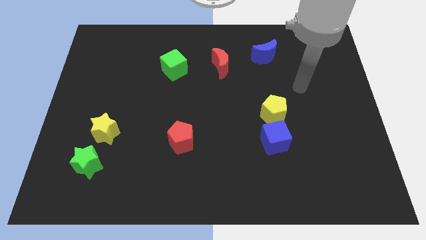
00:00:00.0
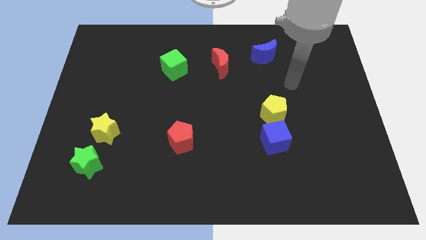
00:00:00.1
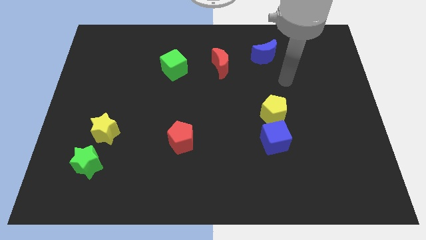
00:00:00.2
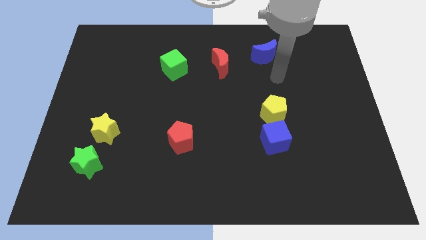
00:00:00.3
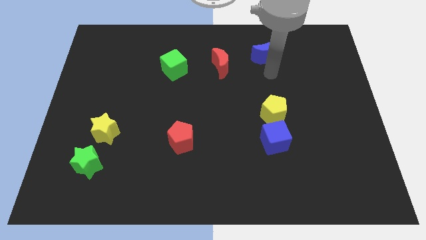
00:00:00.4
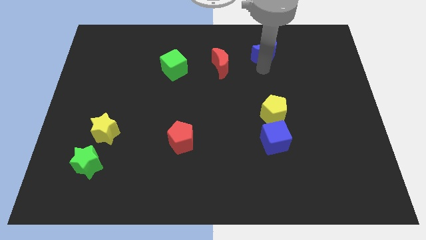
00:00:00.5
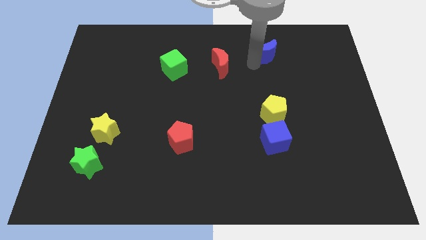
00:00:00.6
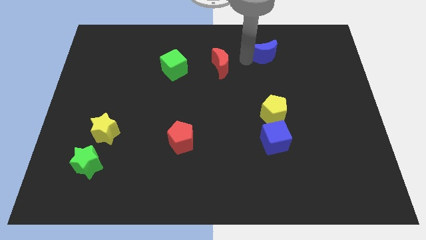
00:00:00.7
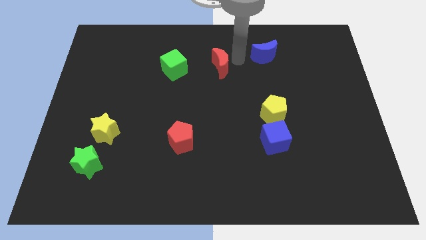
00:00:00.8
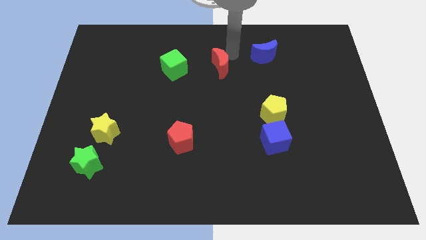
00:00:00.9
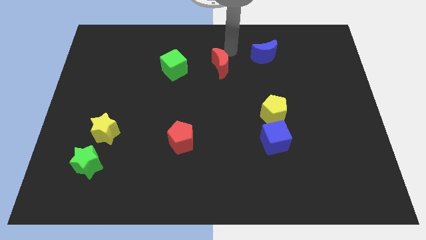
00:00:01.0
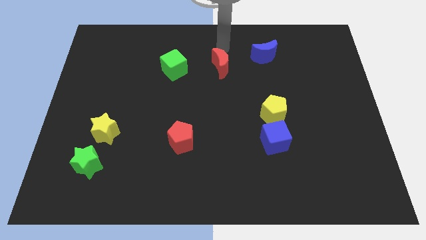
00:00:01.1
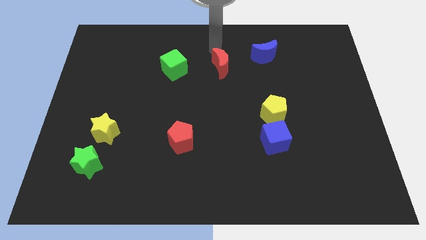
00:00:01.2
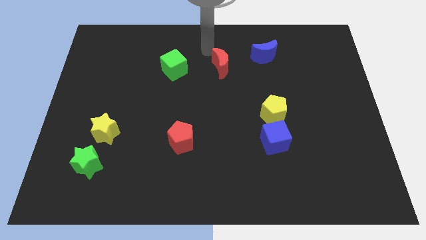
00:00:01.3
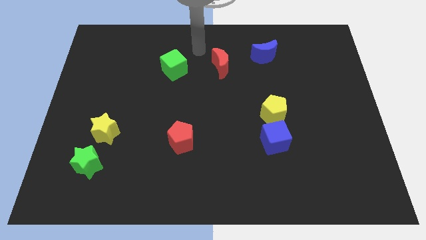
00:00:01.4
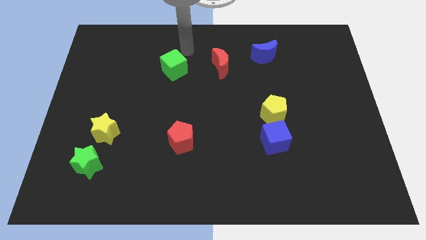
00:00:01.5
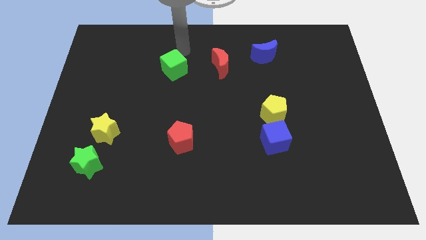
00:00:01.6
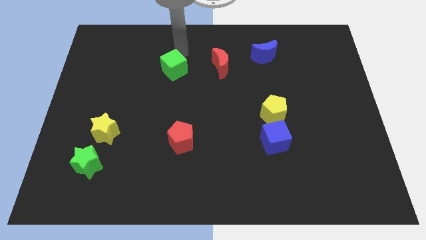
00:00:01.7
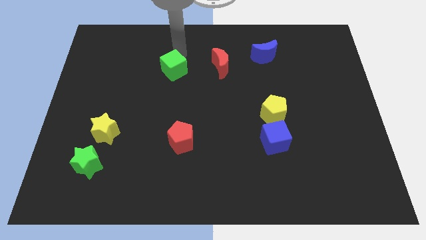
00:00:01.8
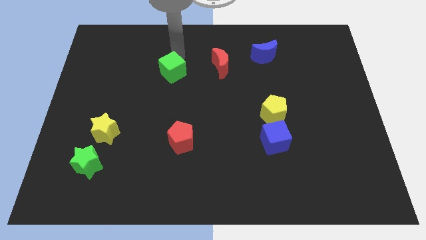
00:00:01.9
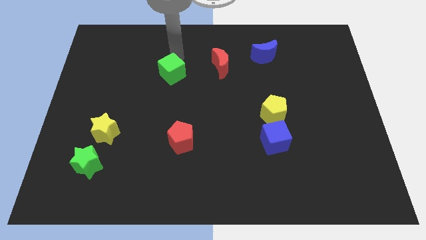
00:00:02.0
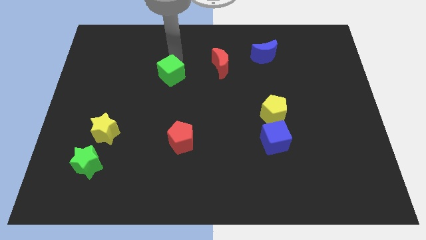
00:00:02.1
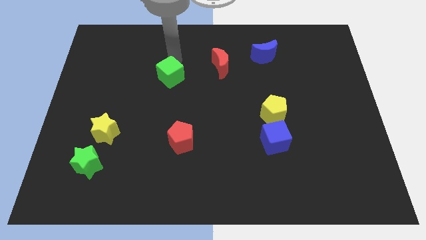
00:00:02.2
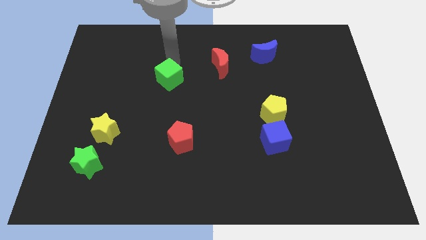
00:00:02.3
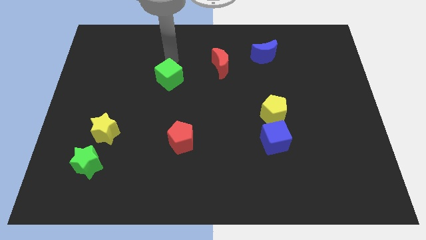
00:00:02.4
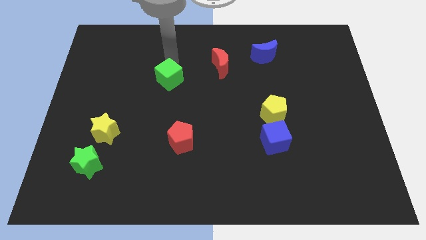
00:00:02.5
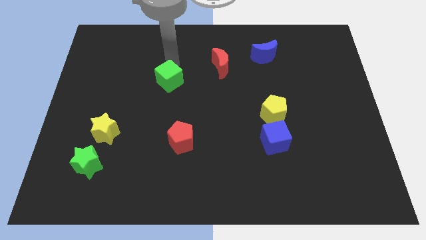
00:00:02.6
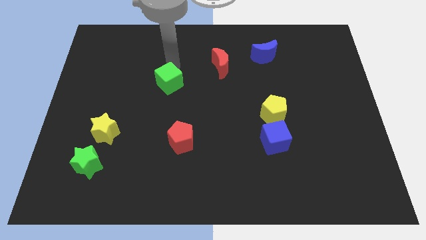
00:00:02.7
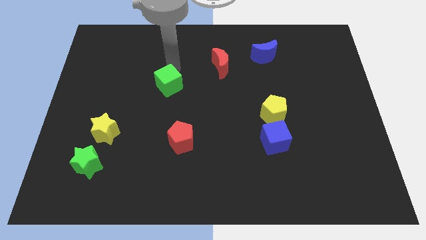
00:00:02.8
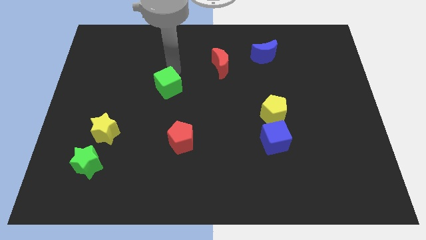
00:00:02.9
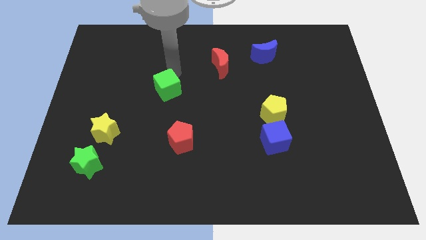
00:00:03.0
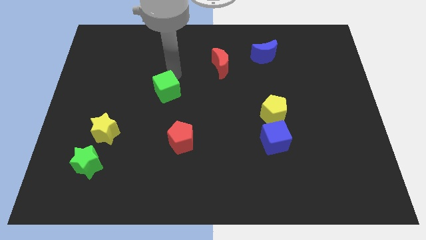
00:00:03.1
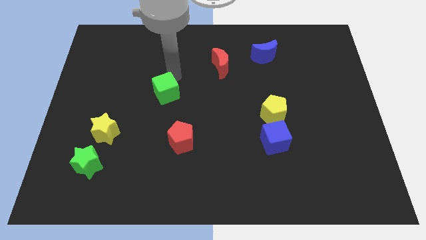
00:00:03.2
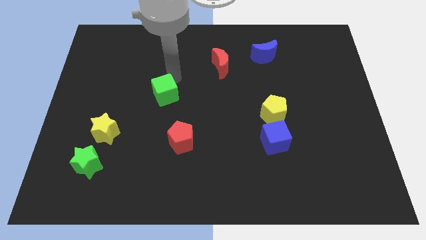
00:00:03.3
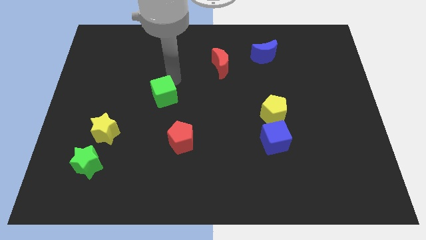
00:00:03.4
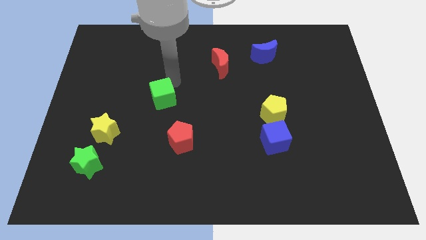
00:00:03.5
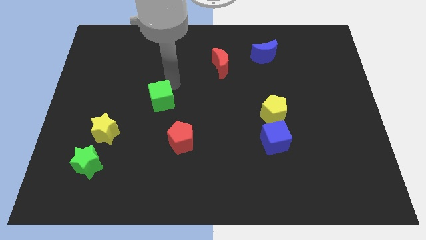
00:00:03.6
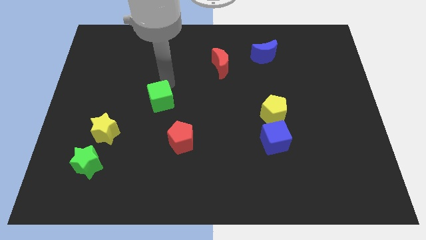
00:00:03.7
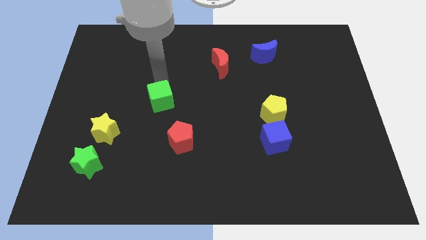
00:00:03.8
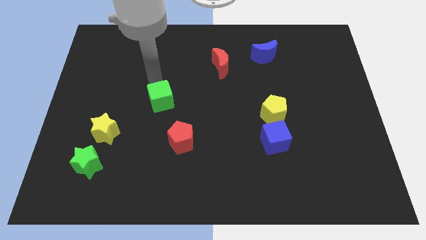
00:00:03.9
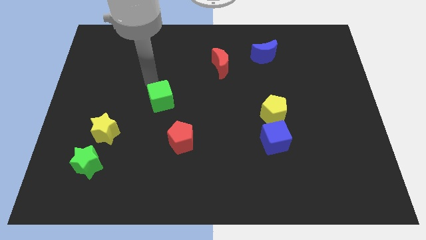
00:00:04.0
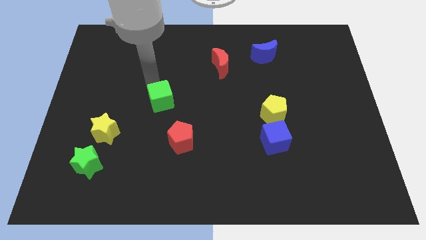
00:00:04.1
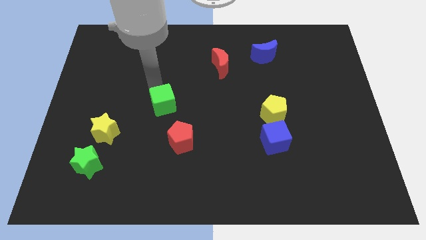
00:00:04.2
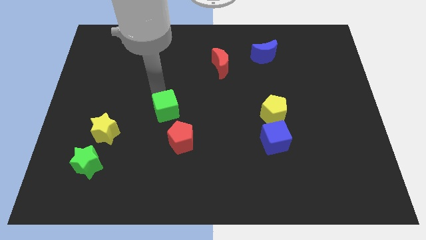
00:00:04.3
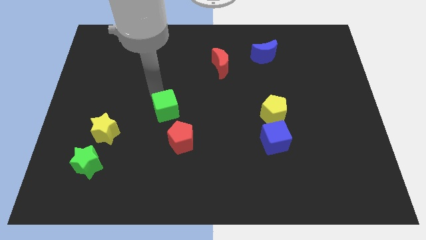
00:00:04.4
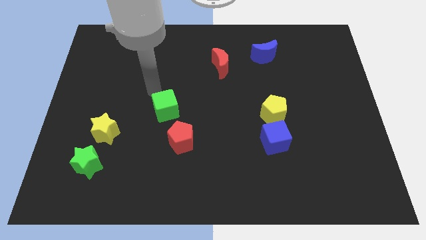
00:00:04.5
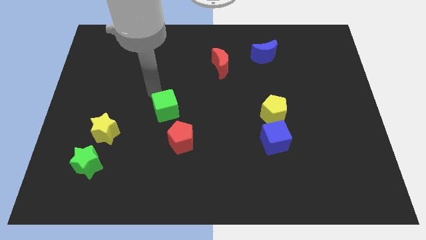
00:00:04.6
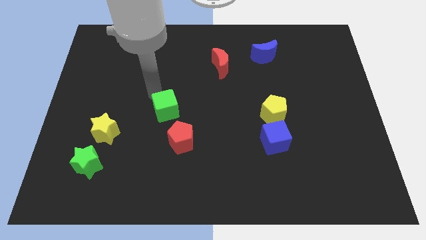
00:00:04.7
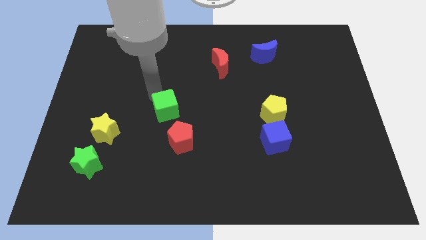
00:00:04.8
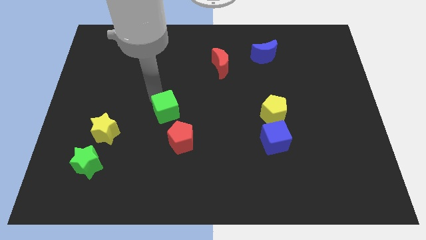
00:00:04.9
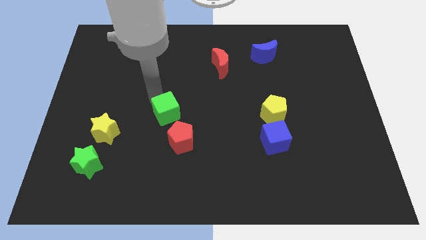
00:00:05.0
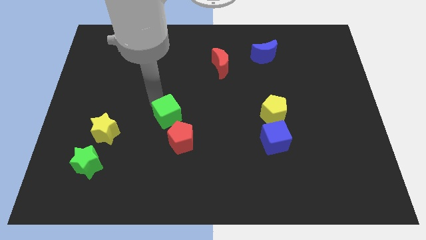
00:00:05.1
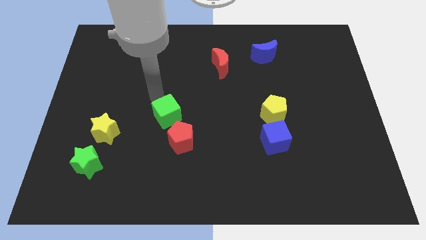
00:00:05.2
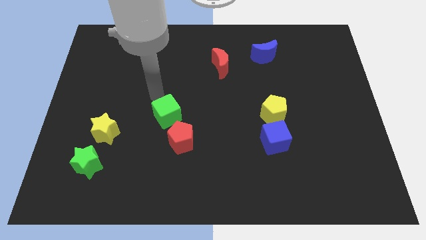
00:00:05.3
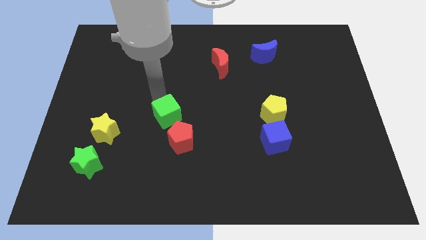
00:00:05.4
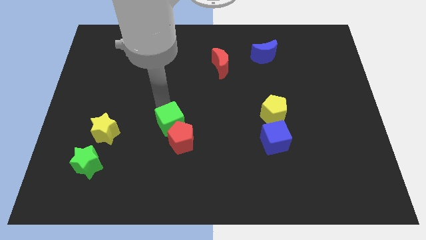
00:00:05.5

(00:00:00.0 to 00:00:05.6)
move the green cube towards the red pentagon

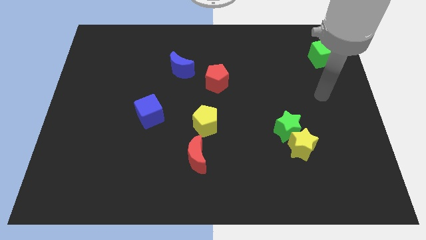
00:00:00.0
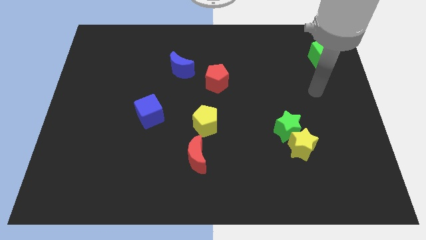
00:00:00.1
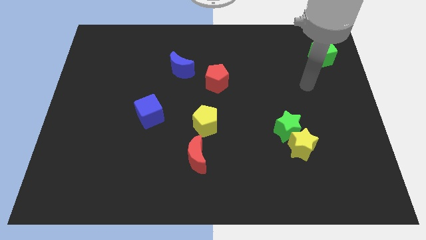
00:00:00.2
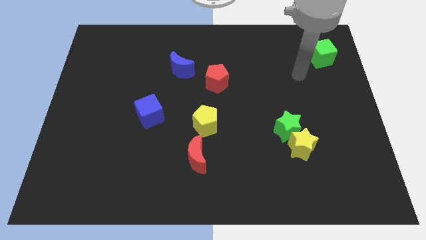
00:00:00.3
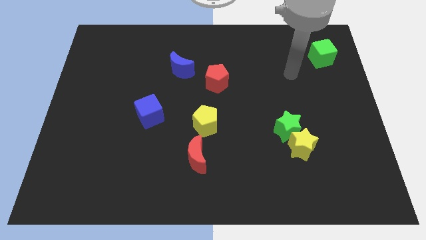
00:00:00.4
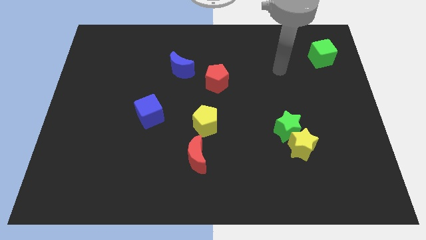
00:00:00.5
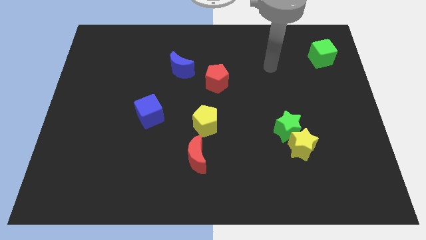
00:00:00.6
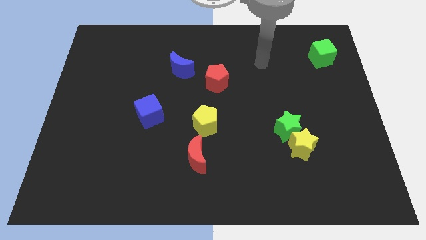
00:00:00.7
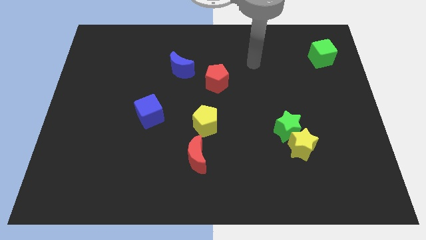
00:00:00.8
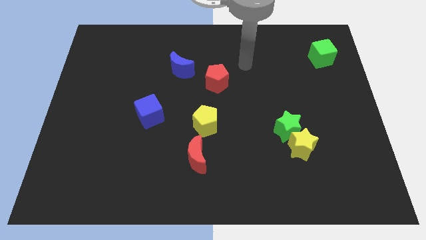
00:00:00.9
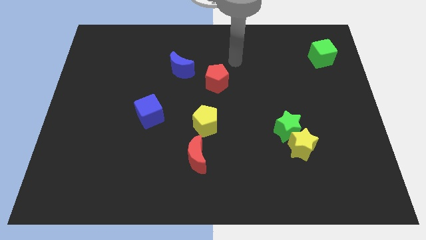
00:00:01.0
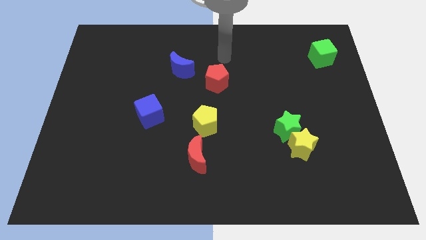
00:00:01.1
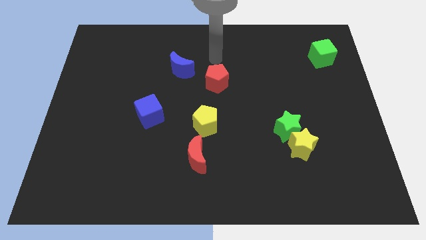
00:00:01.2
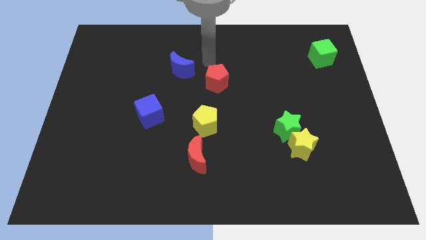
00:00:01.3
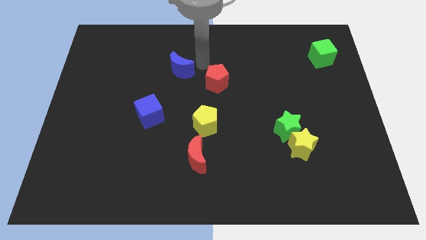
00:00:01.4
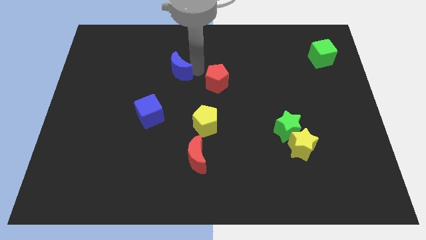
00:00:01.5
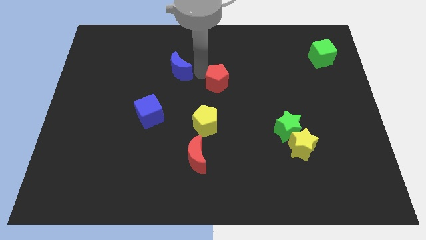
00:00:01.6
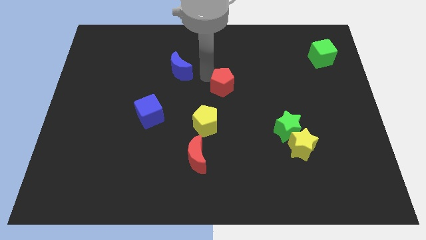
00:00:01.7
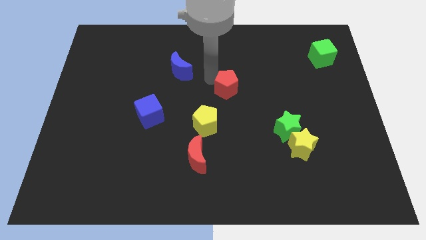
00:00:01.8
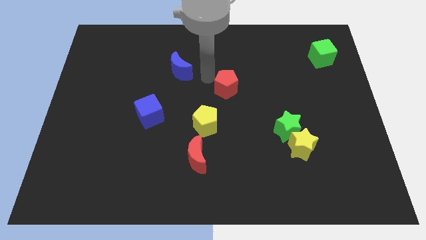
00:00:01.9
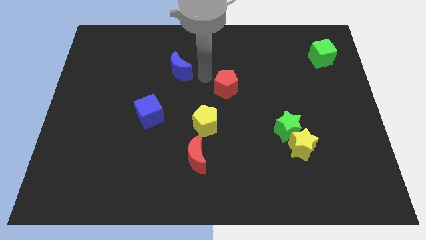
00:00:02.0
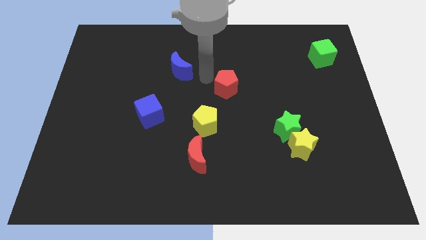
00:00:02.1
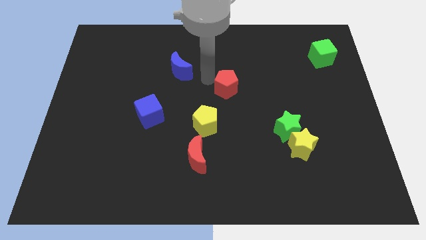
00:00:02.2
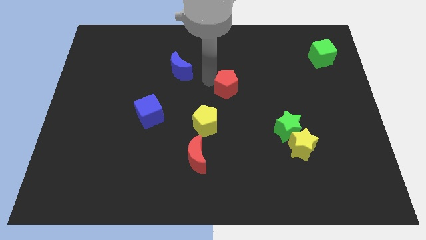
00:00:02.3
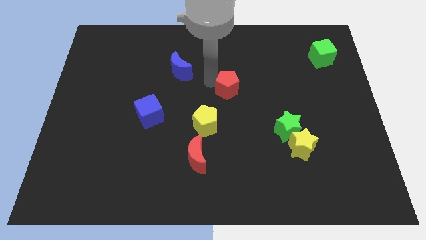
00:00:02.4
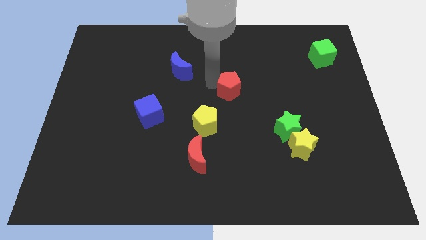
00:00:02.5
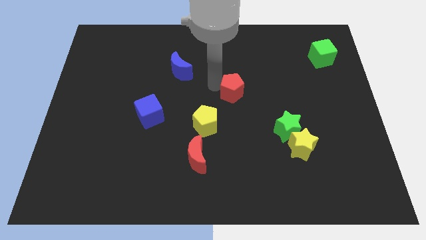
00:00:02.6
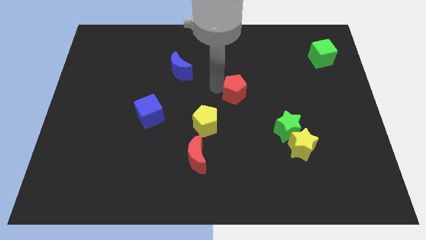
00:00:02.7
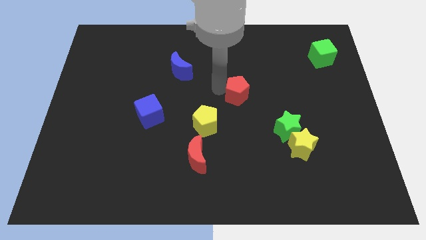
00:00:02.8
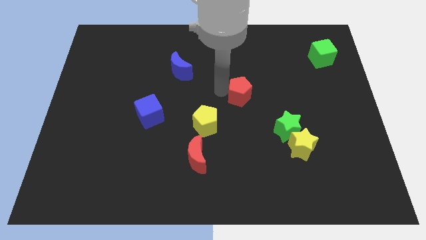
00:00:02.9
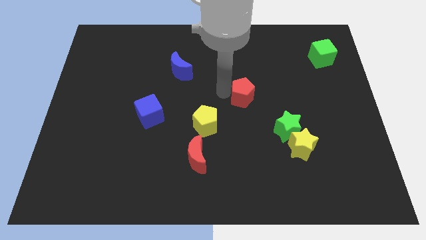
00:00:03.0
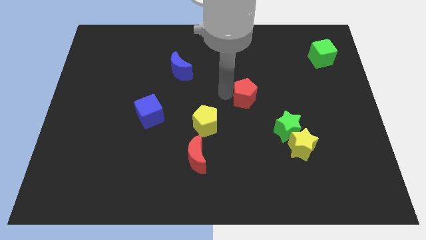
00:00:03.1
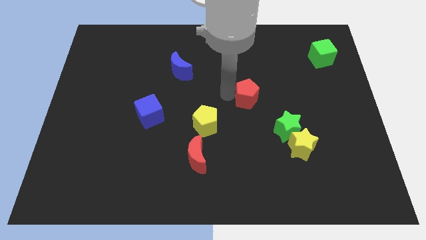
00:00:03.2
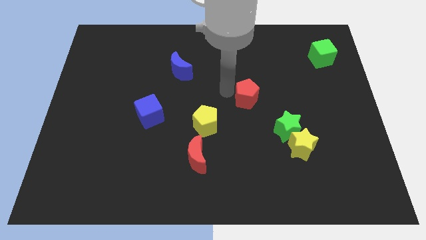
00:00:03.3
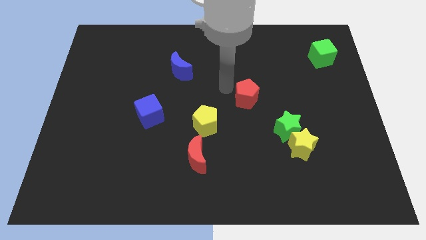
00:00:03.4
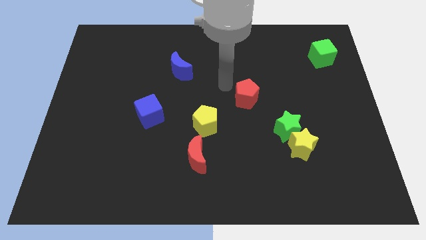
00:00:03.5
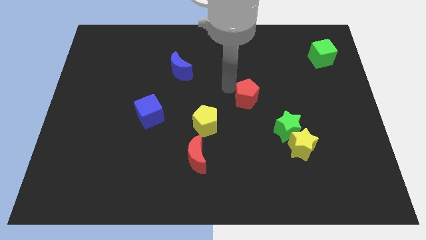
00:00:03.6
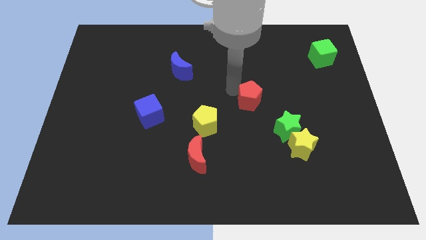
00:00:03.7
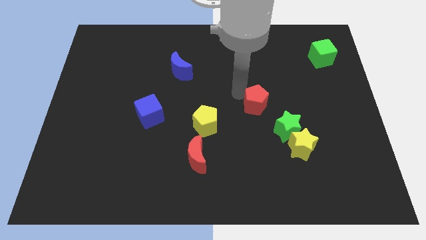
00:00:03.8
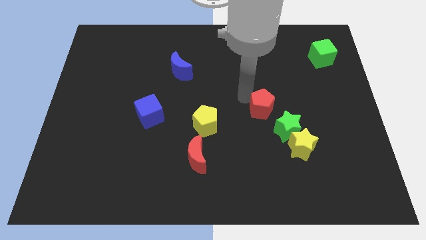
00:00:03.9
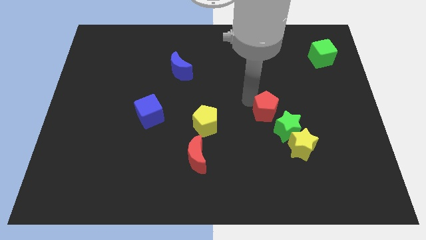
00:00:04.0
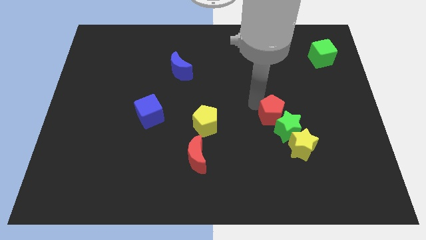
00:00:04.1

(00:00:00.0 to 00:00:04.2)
put the red pentagon to the green star
